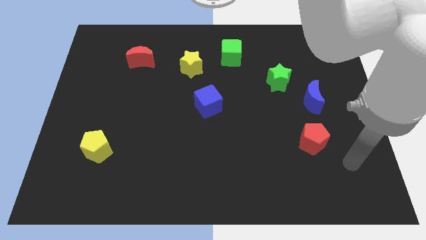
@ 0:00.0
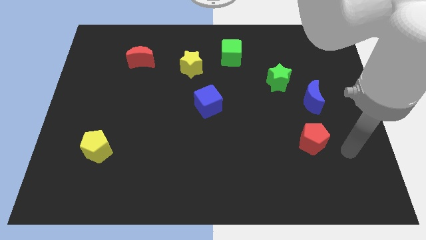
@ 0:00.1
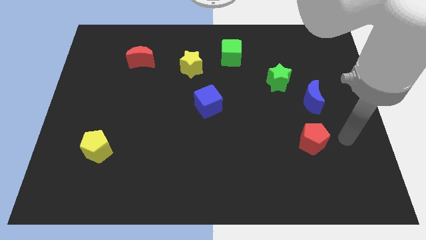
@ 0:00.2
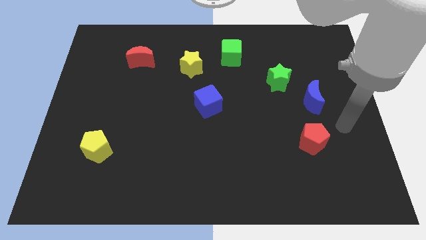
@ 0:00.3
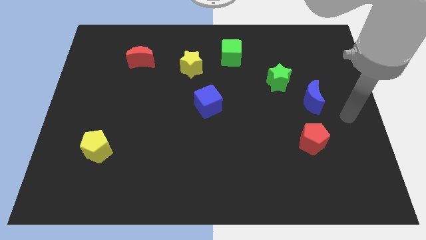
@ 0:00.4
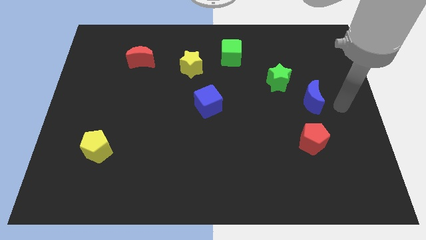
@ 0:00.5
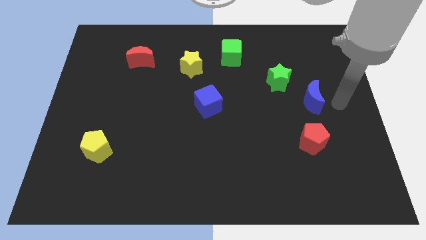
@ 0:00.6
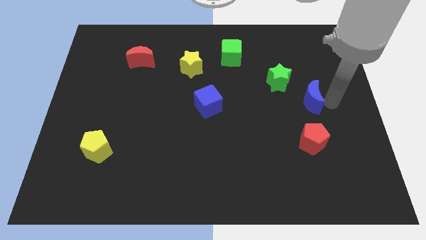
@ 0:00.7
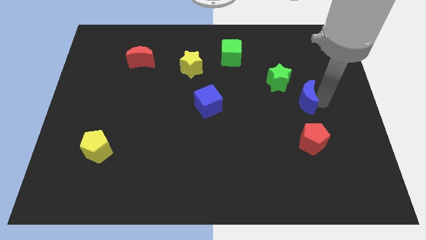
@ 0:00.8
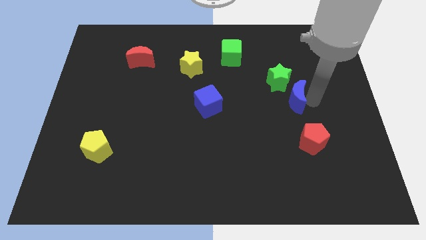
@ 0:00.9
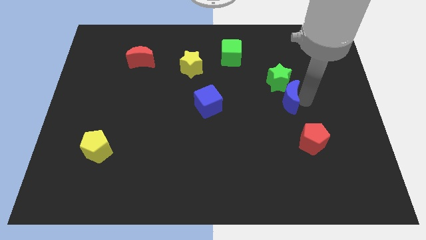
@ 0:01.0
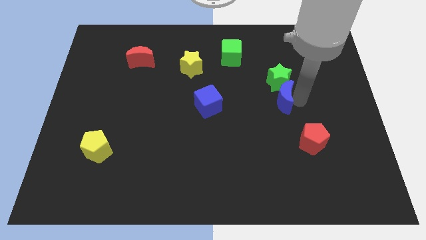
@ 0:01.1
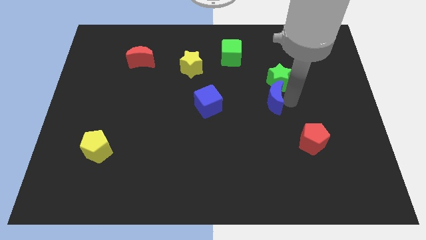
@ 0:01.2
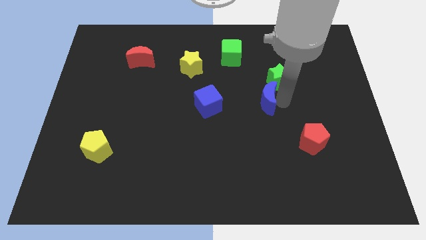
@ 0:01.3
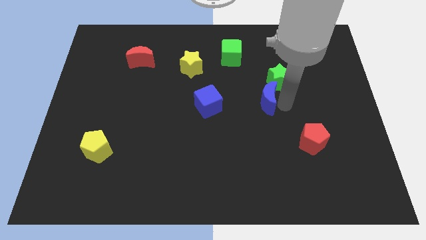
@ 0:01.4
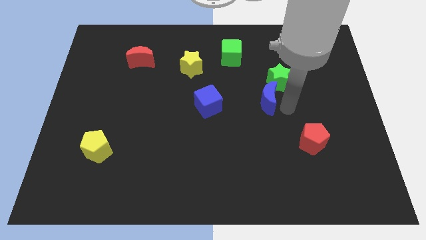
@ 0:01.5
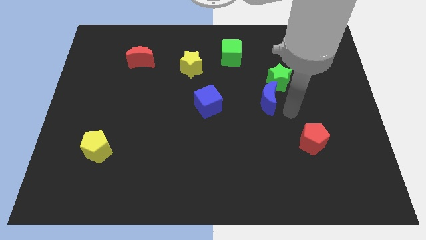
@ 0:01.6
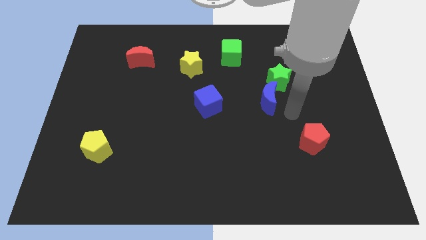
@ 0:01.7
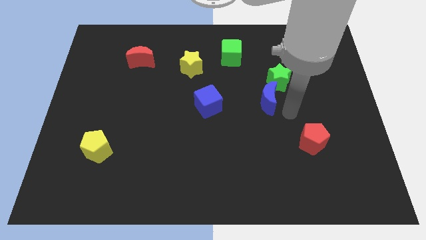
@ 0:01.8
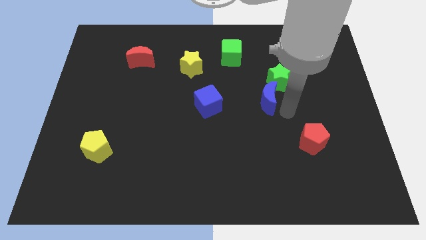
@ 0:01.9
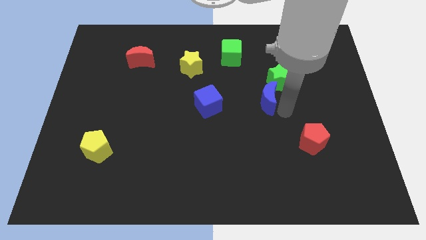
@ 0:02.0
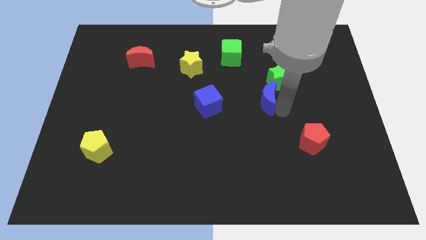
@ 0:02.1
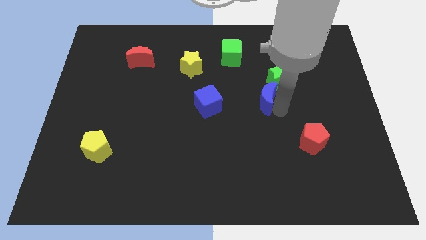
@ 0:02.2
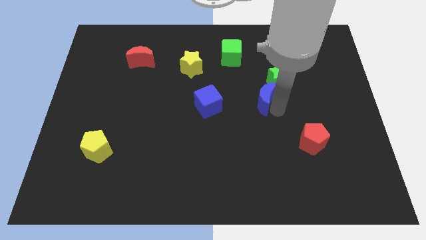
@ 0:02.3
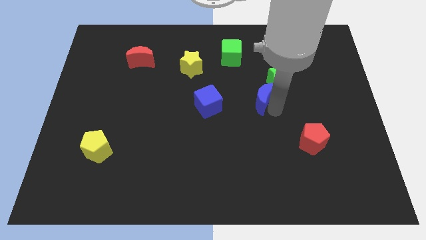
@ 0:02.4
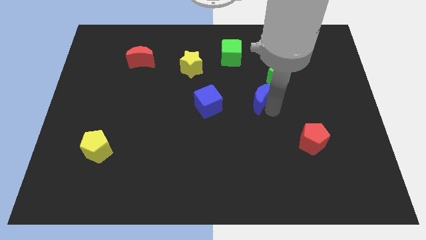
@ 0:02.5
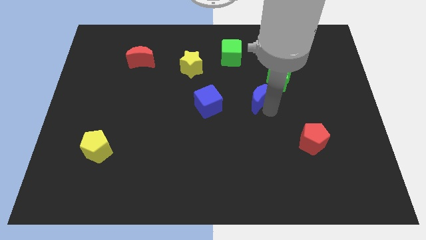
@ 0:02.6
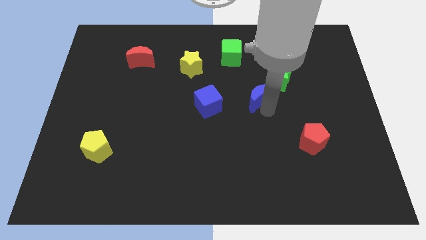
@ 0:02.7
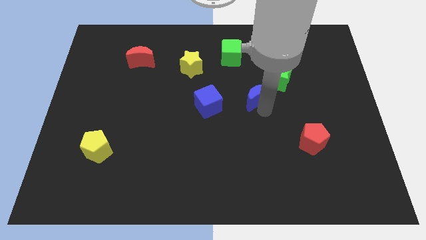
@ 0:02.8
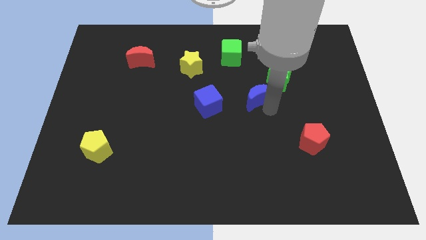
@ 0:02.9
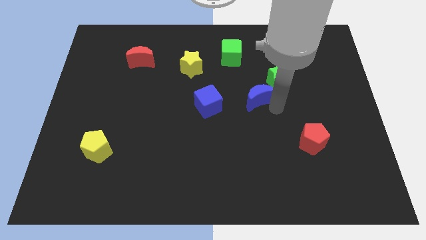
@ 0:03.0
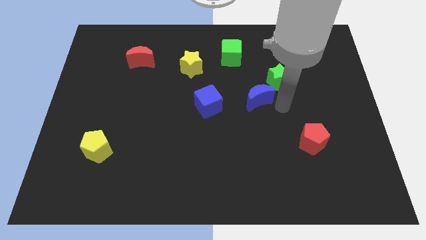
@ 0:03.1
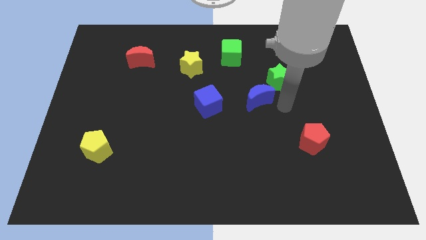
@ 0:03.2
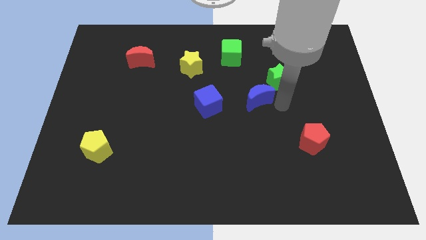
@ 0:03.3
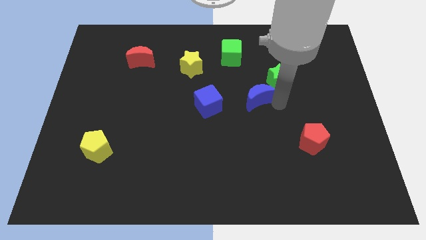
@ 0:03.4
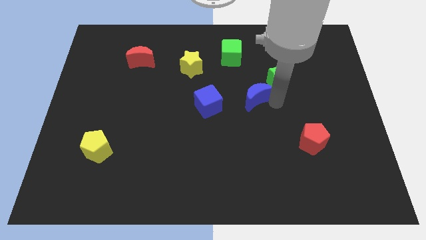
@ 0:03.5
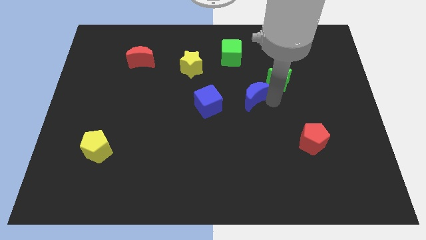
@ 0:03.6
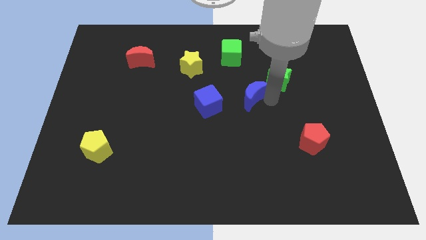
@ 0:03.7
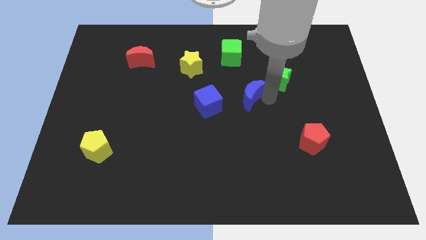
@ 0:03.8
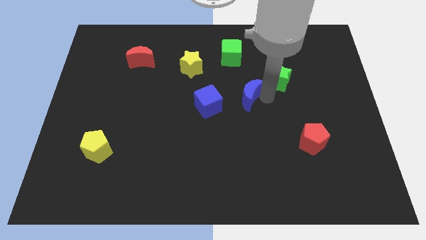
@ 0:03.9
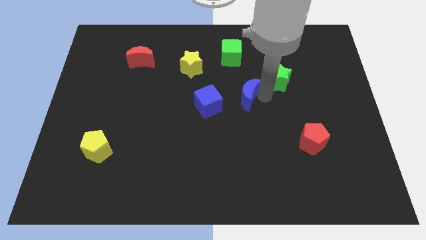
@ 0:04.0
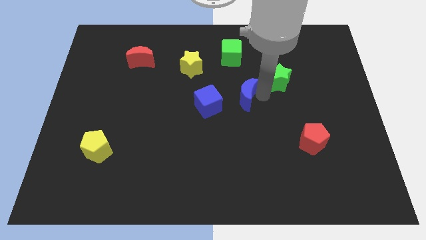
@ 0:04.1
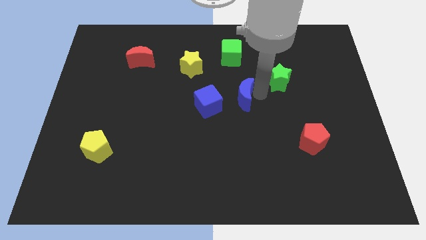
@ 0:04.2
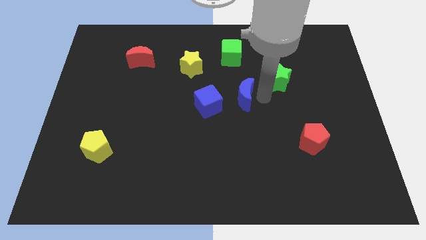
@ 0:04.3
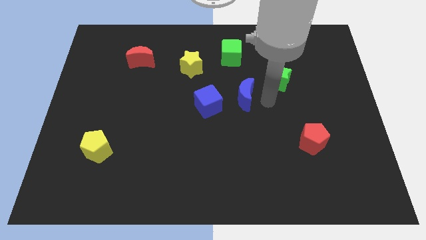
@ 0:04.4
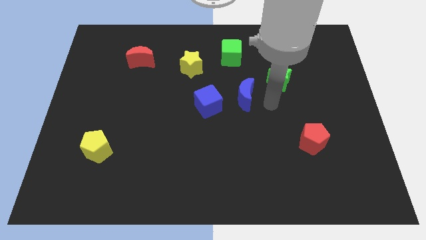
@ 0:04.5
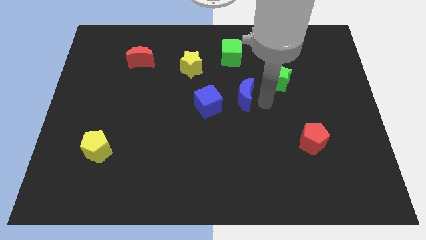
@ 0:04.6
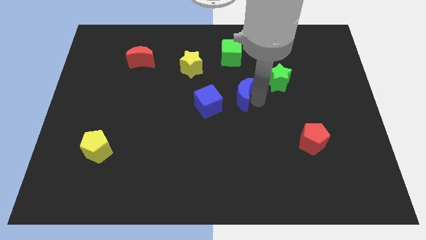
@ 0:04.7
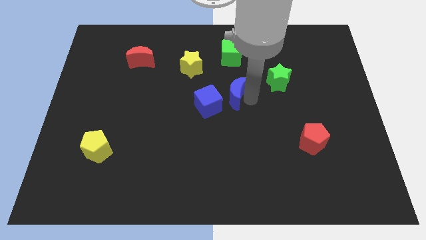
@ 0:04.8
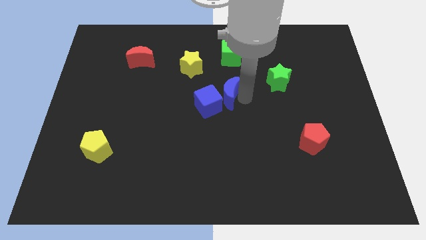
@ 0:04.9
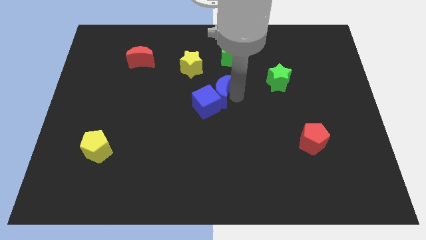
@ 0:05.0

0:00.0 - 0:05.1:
move the blue moon left

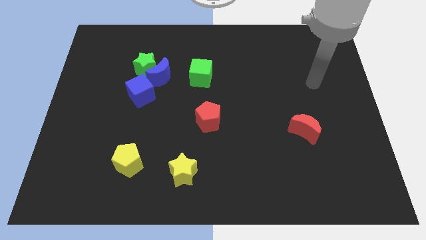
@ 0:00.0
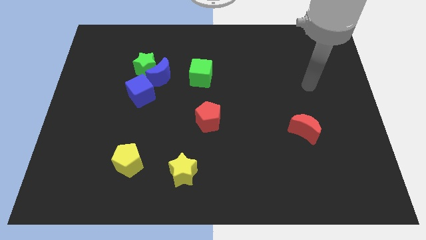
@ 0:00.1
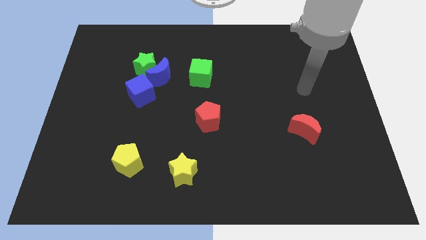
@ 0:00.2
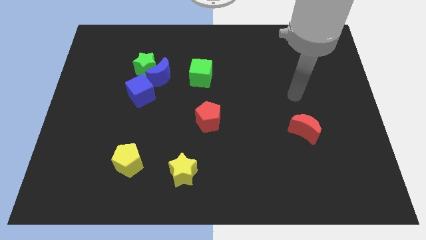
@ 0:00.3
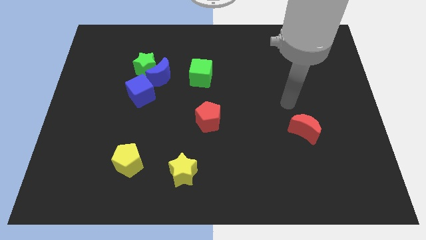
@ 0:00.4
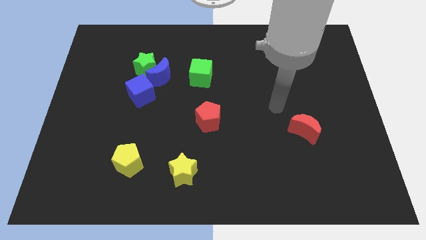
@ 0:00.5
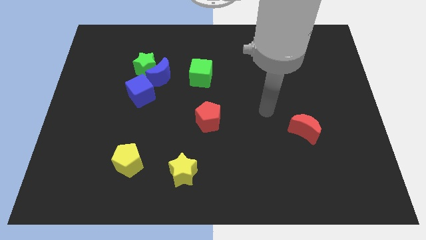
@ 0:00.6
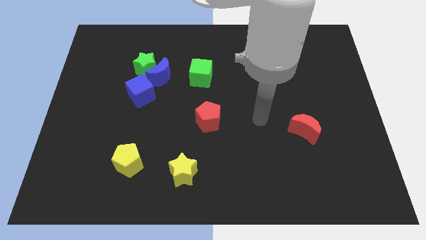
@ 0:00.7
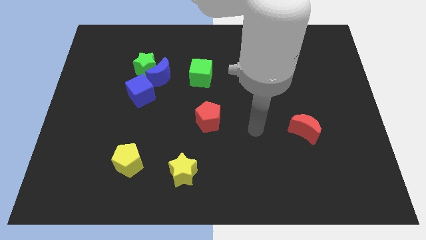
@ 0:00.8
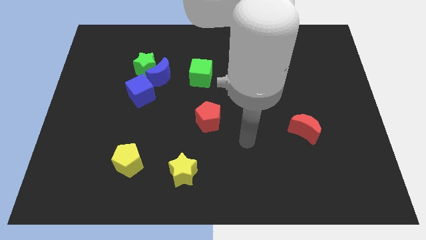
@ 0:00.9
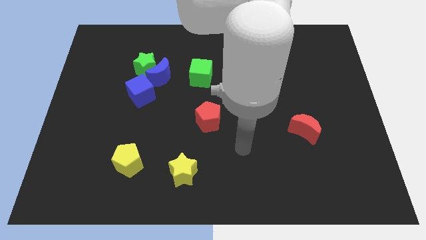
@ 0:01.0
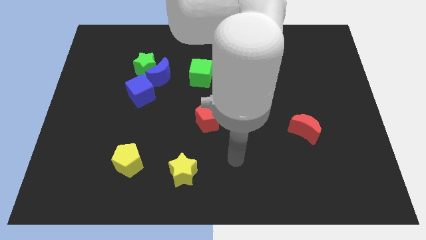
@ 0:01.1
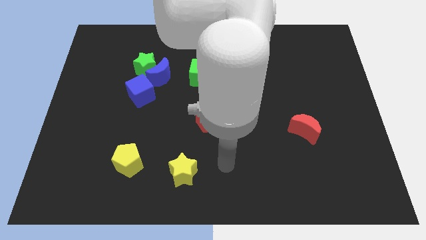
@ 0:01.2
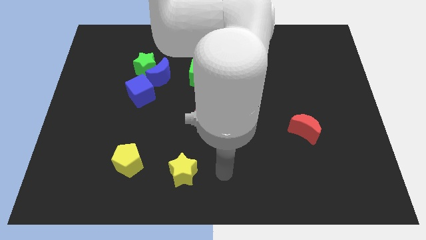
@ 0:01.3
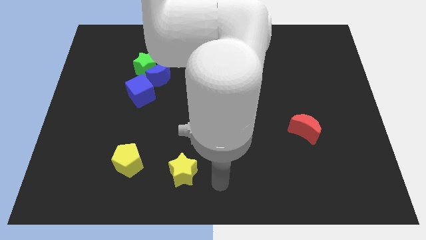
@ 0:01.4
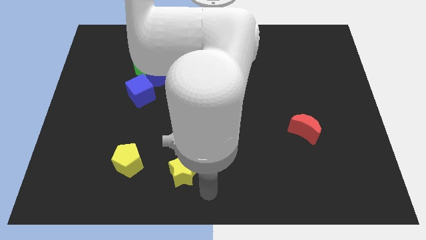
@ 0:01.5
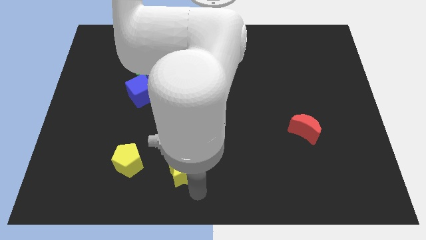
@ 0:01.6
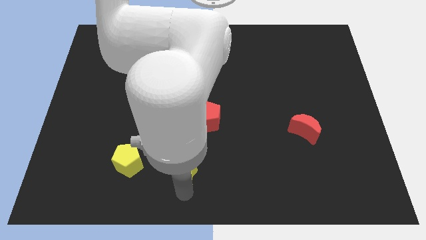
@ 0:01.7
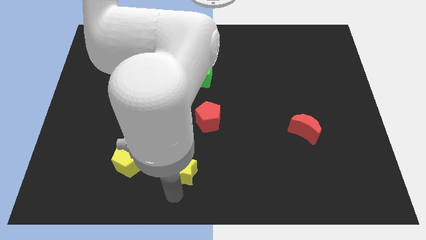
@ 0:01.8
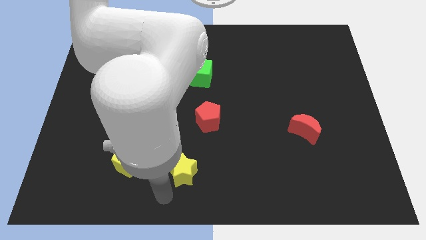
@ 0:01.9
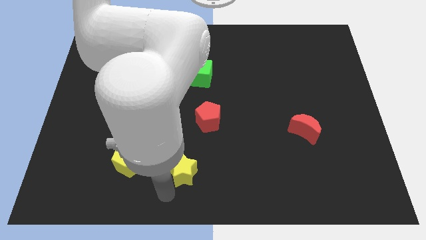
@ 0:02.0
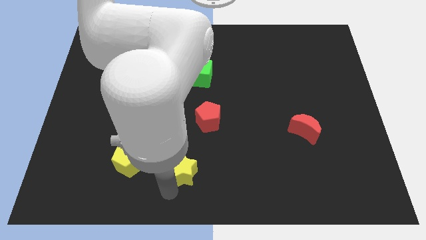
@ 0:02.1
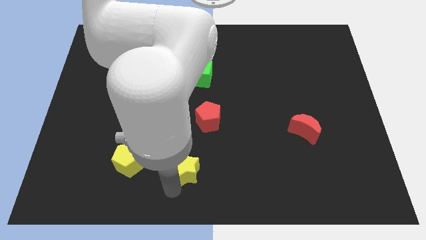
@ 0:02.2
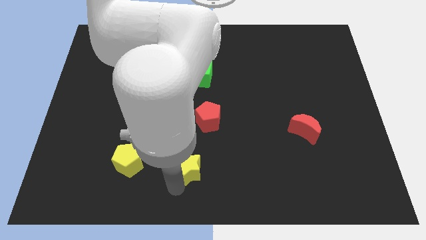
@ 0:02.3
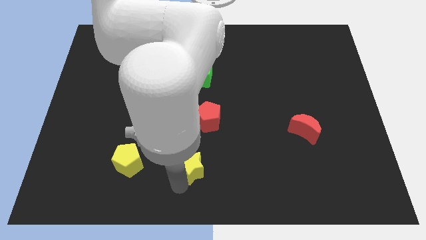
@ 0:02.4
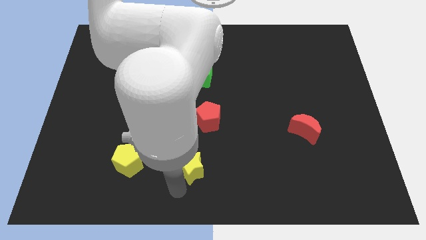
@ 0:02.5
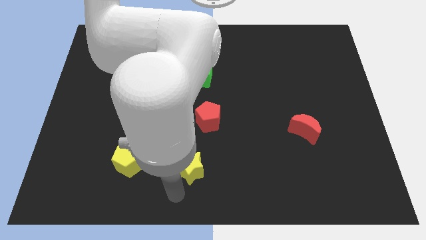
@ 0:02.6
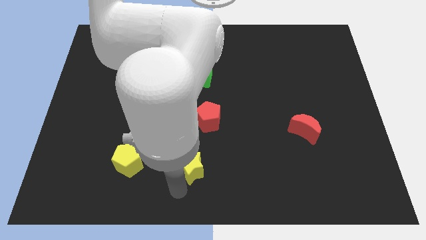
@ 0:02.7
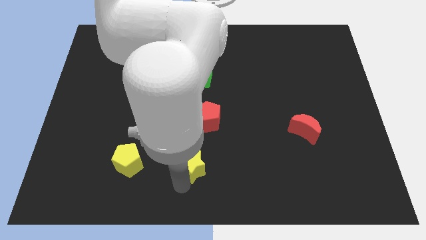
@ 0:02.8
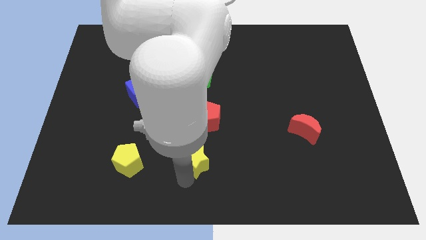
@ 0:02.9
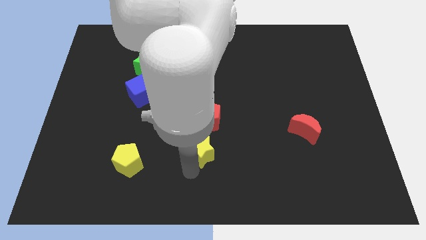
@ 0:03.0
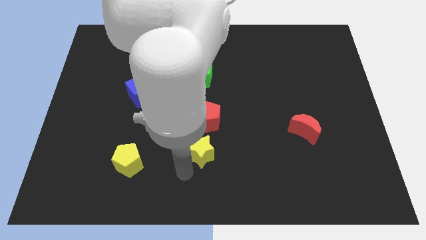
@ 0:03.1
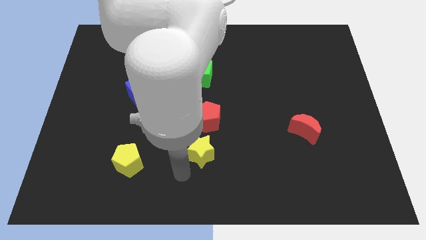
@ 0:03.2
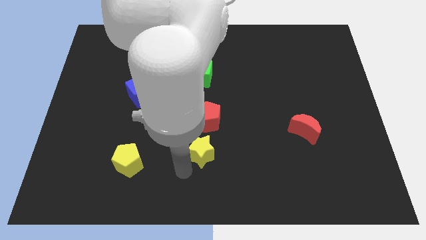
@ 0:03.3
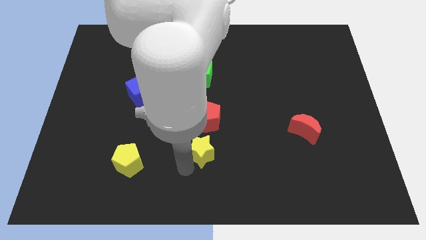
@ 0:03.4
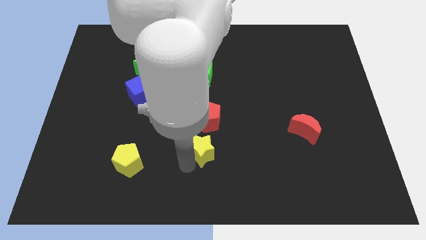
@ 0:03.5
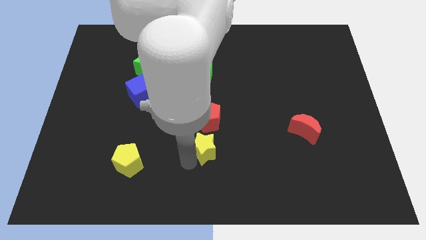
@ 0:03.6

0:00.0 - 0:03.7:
slightly slide the yellow star up and right
